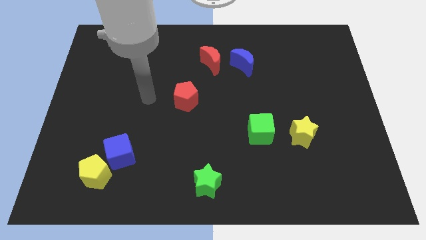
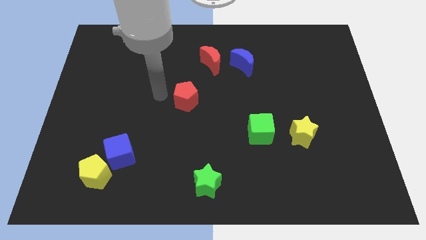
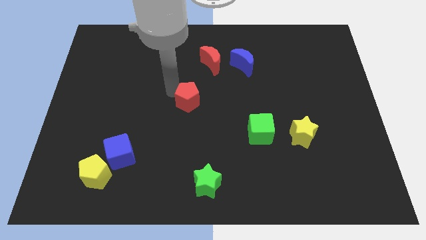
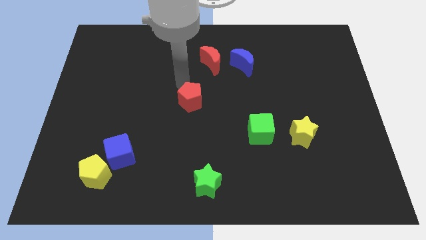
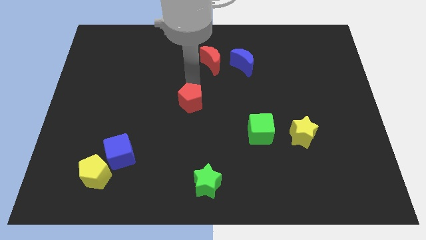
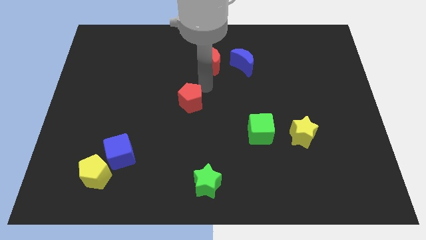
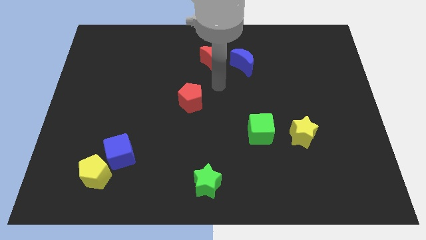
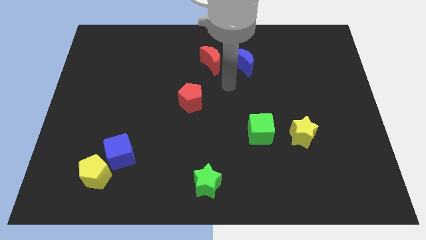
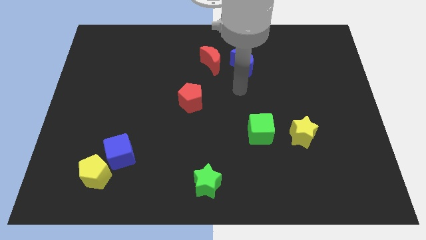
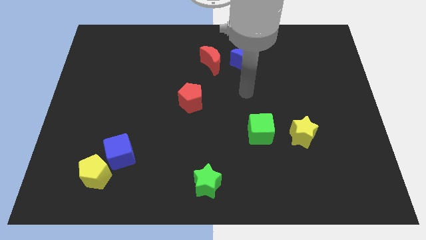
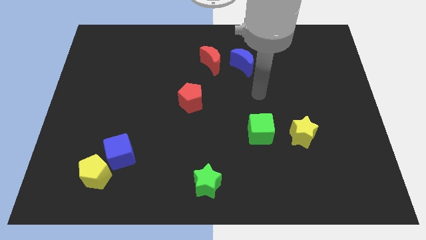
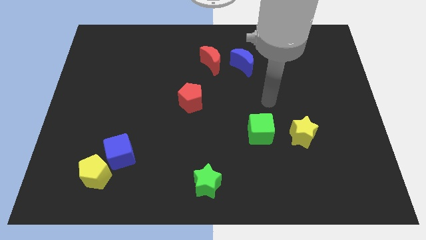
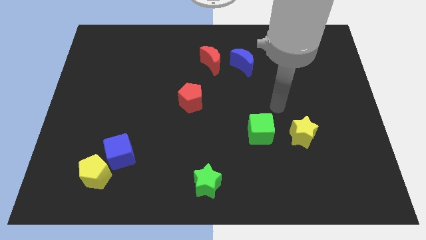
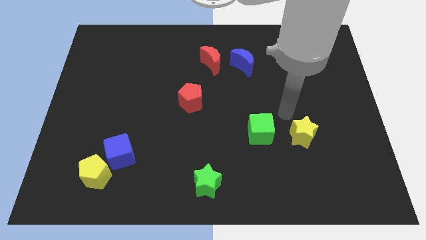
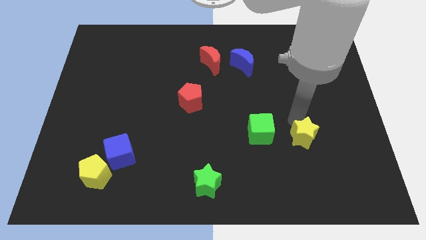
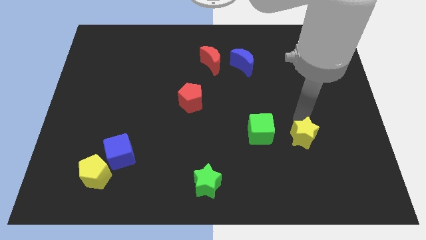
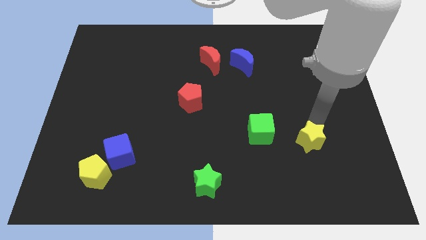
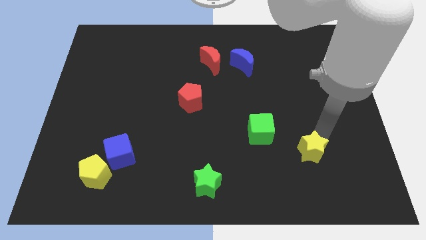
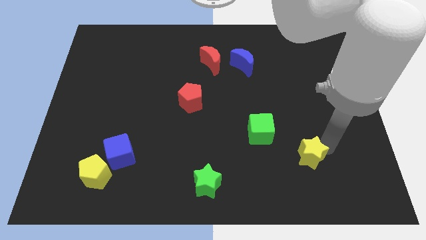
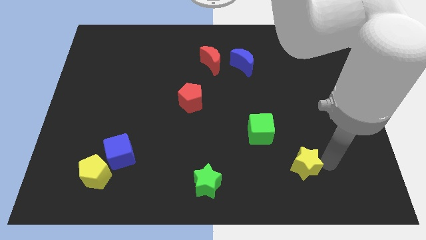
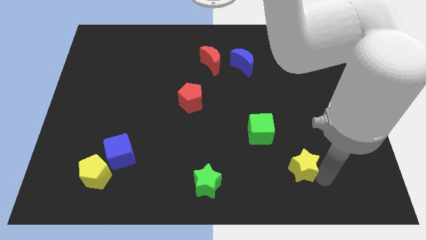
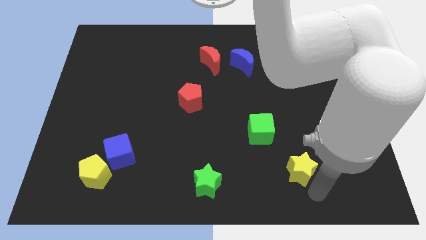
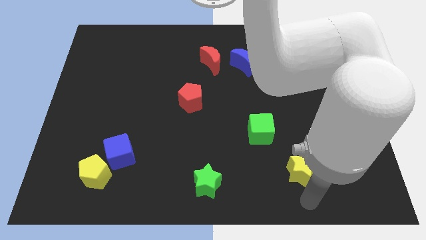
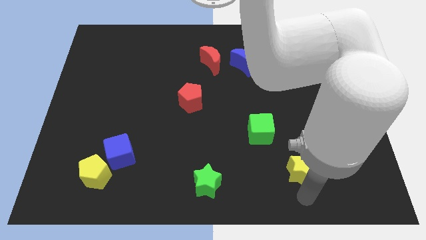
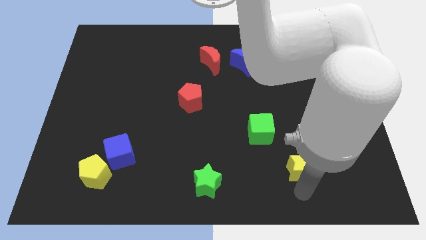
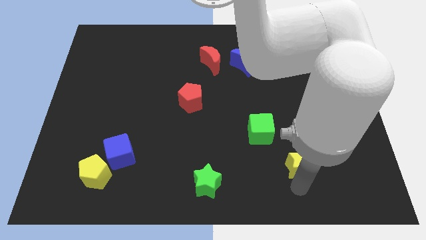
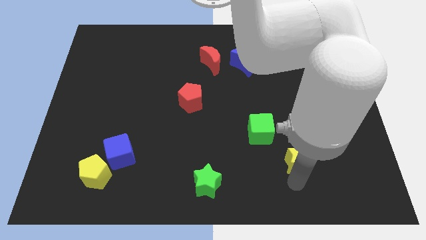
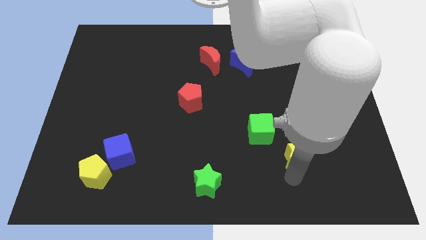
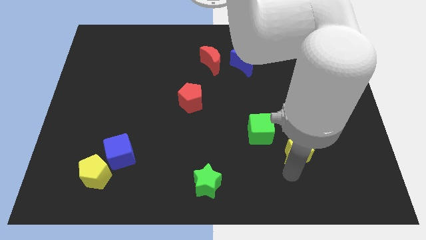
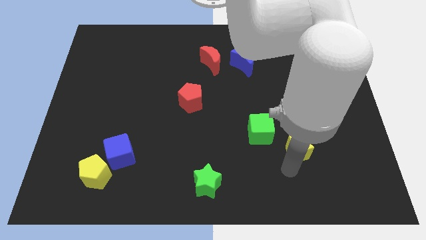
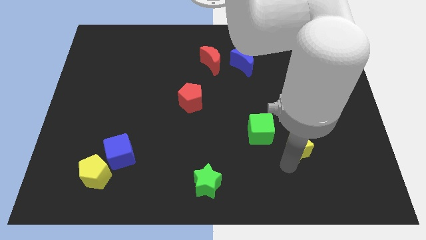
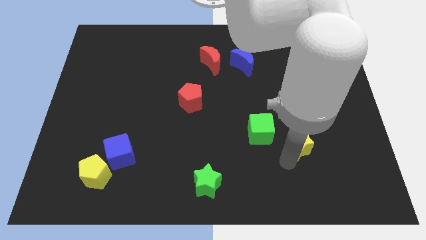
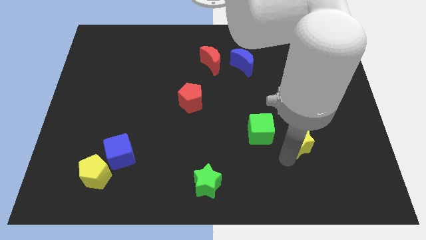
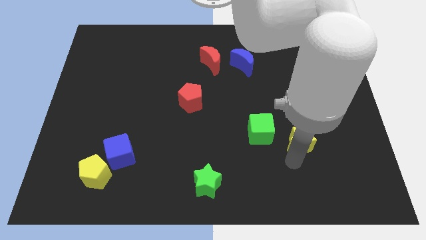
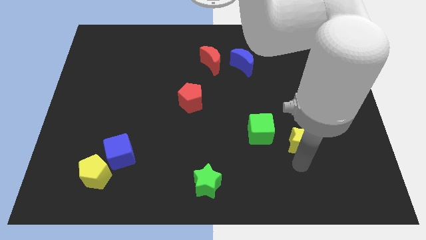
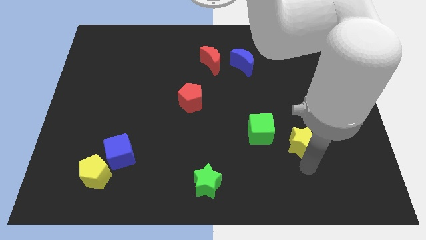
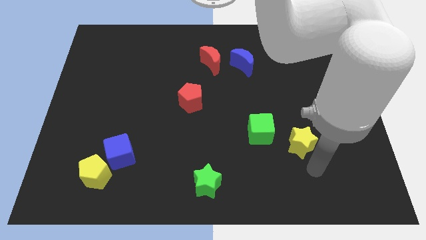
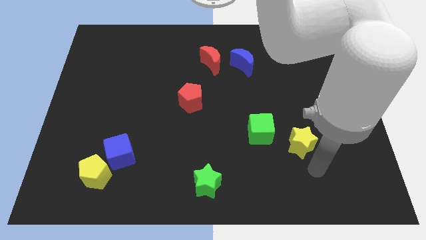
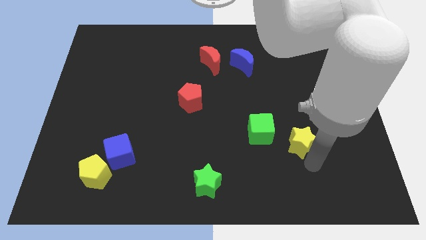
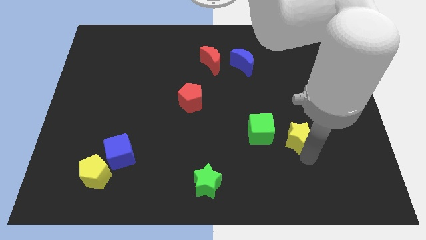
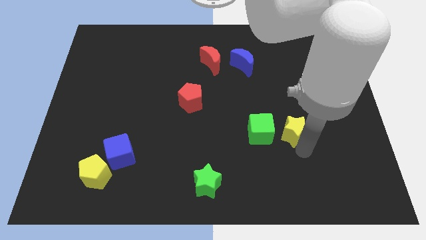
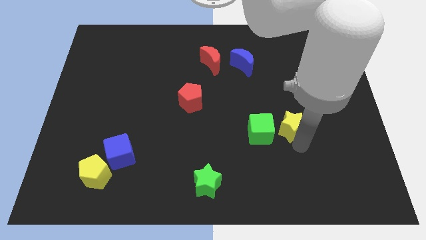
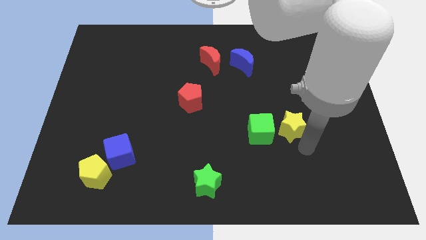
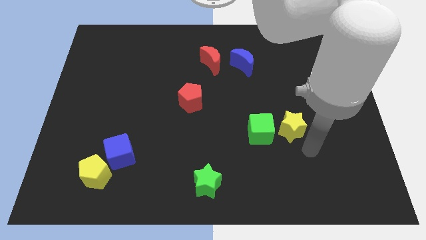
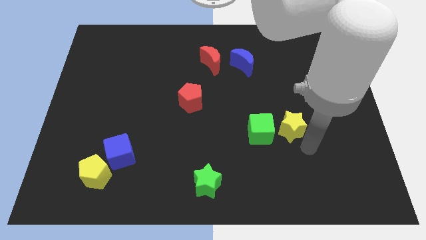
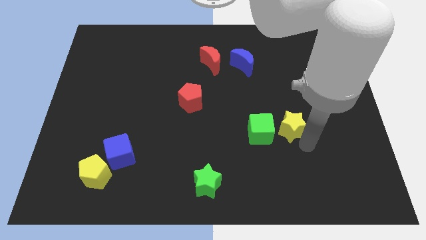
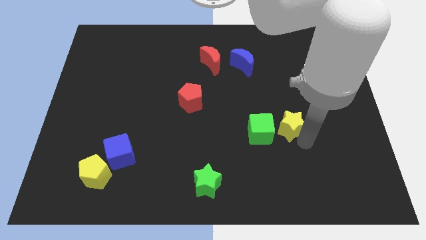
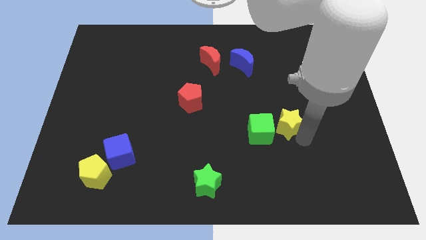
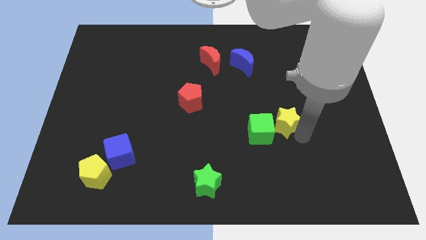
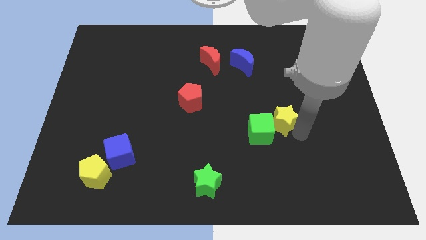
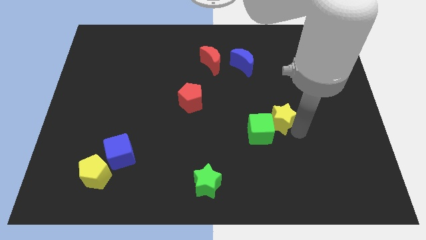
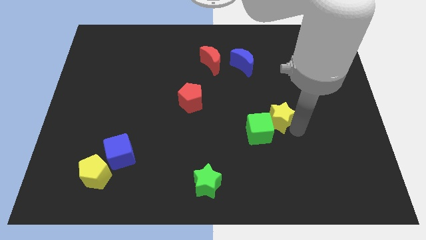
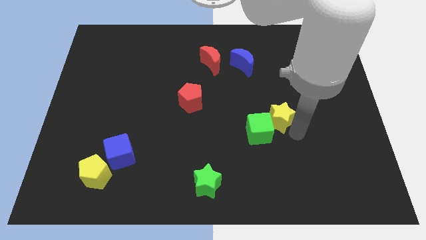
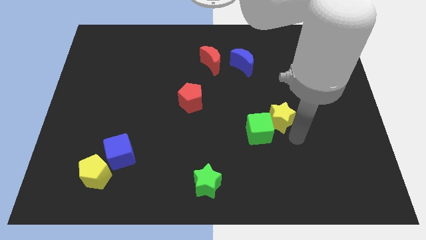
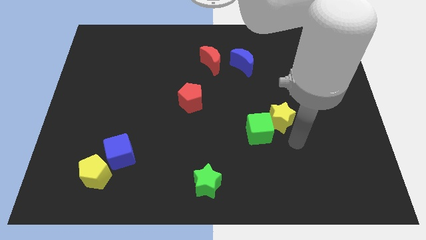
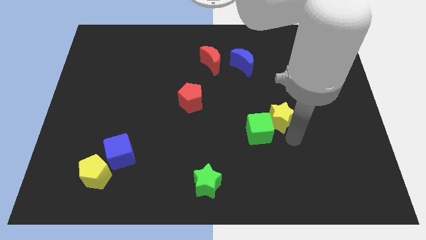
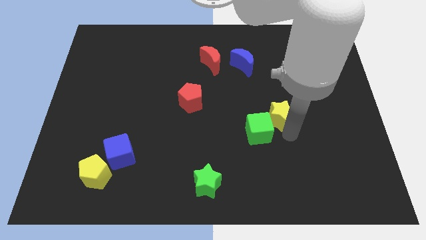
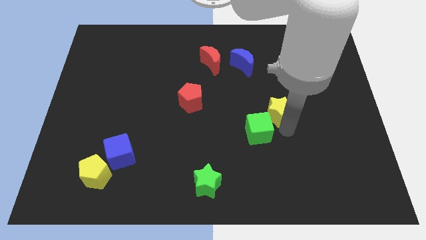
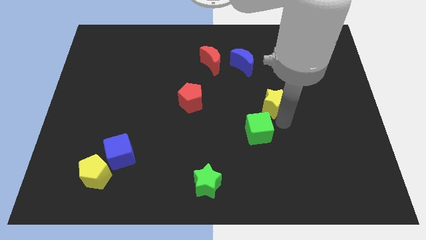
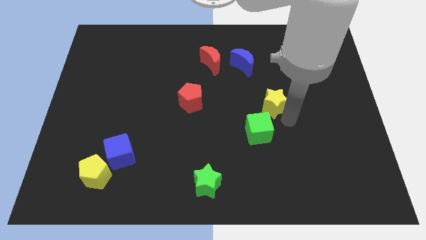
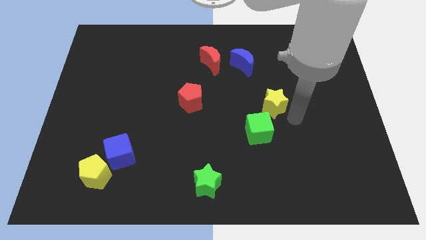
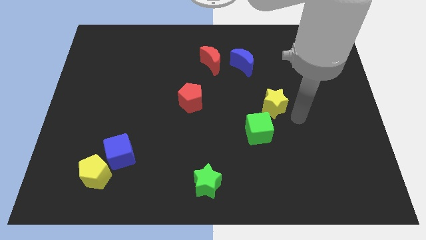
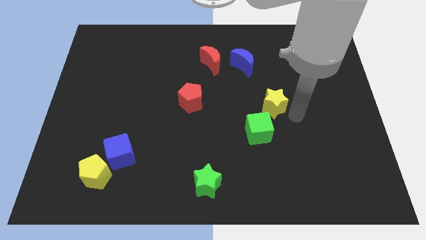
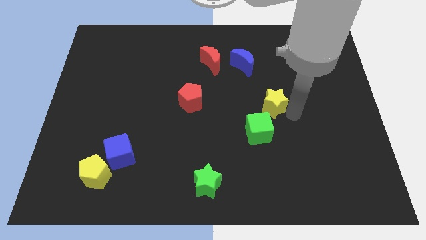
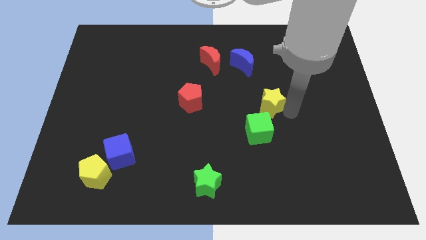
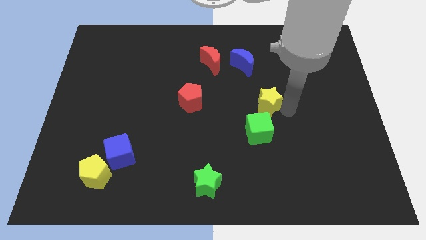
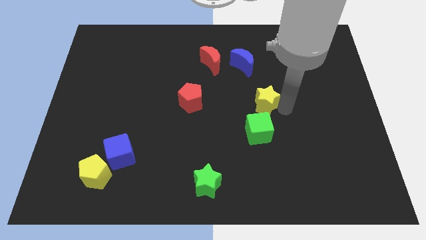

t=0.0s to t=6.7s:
push the yellow star below the blue moon

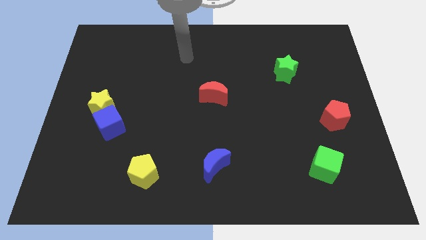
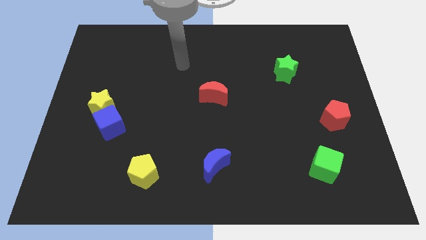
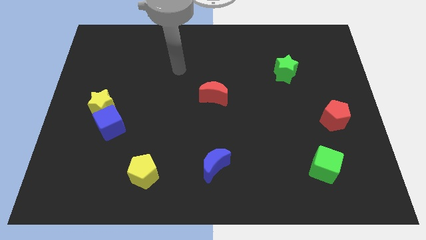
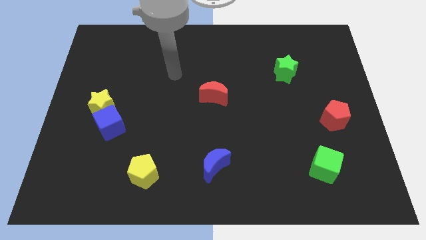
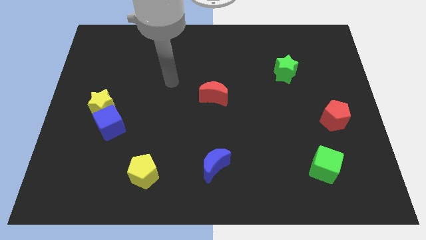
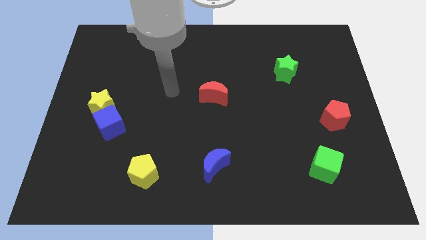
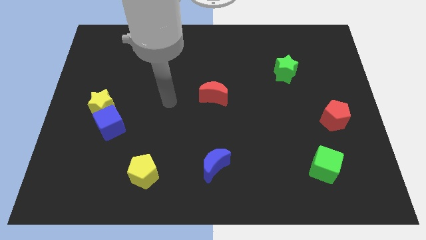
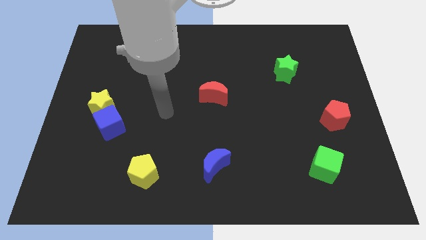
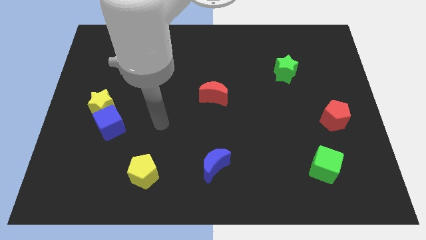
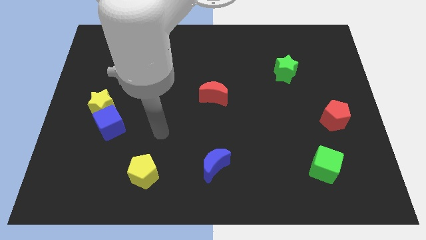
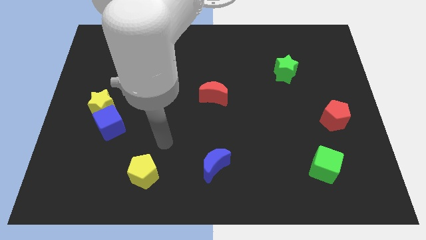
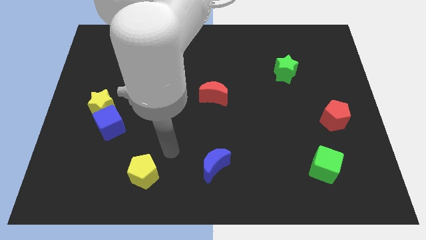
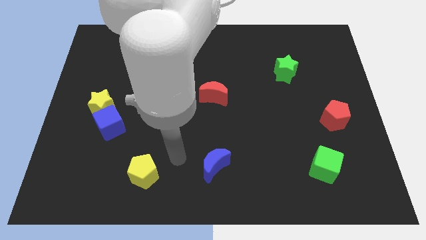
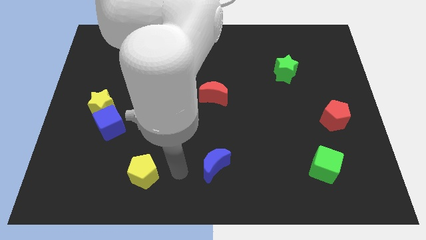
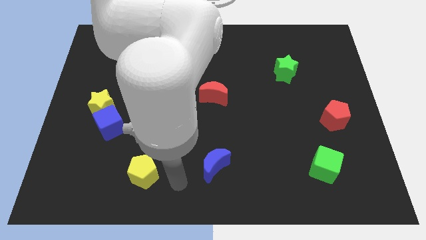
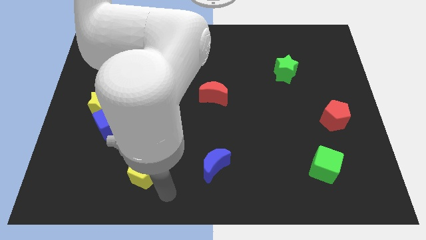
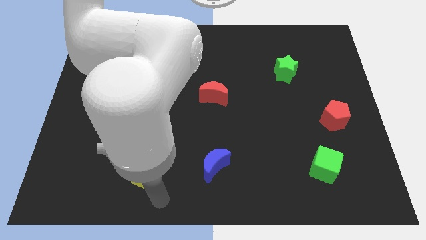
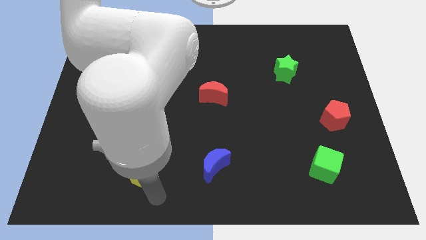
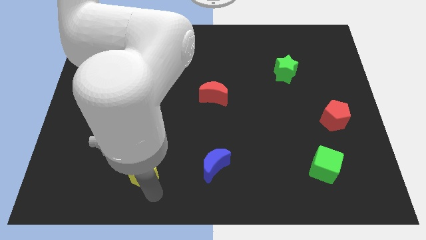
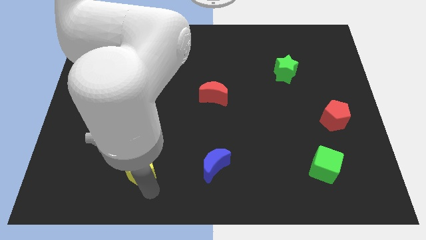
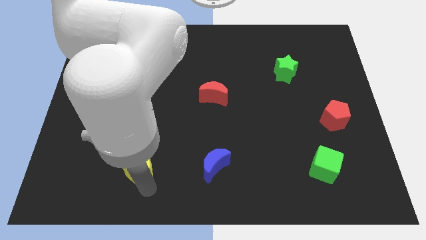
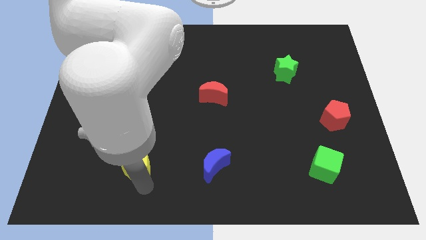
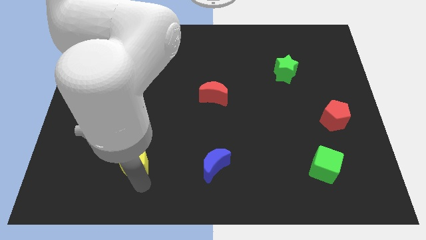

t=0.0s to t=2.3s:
push the yellow pentagon to the bottom right of the blue cube
